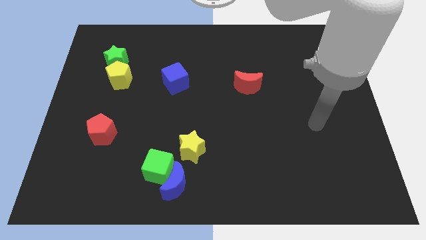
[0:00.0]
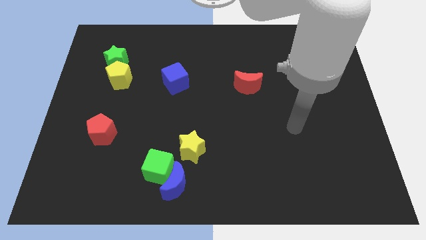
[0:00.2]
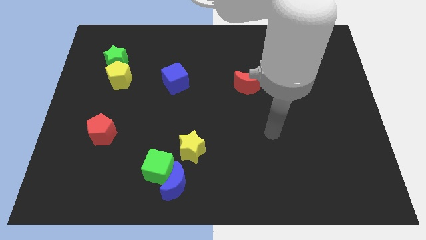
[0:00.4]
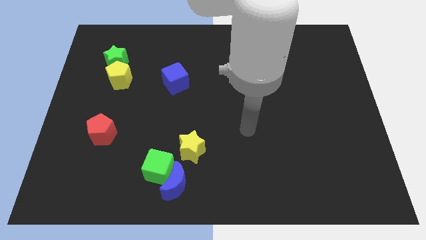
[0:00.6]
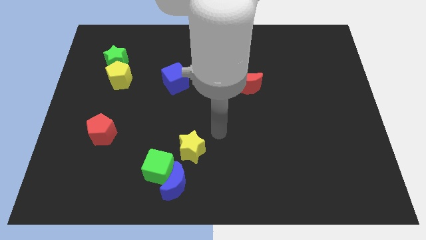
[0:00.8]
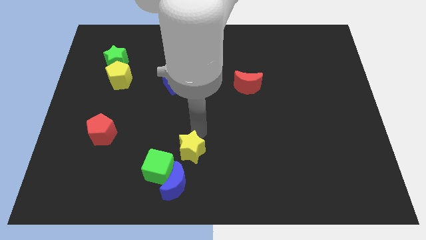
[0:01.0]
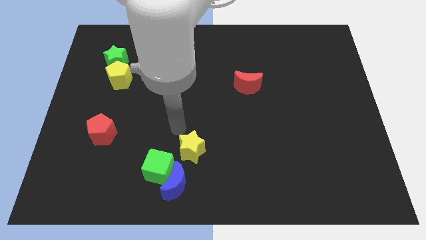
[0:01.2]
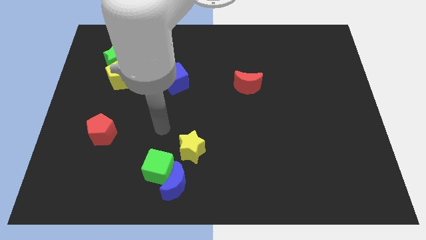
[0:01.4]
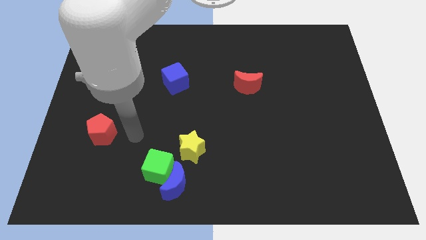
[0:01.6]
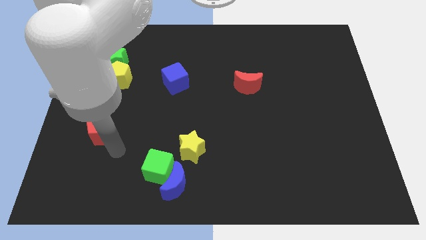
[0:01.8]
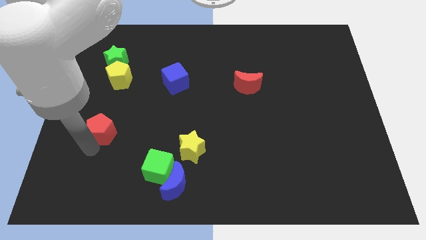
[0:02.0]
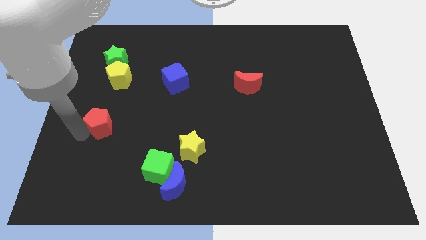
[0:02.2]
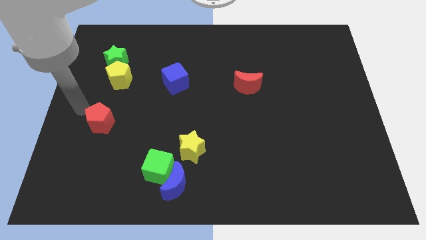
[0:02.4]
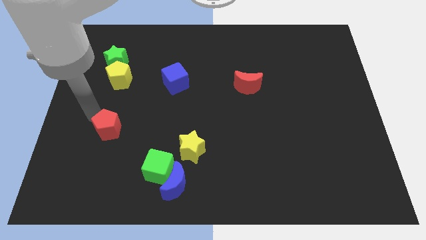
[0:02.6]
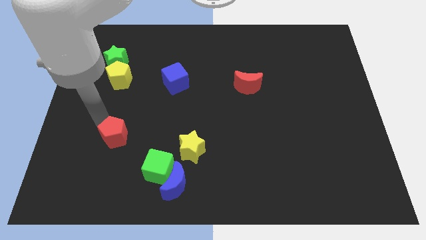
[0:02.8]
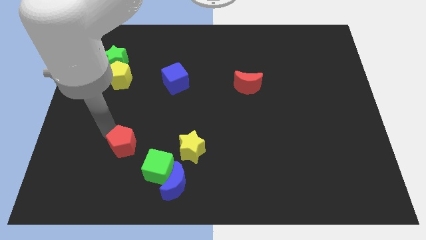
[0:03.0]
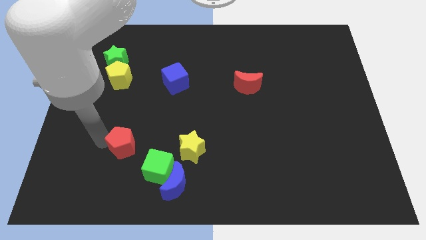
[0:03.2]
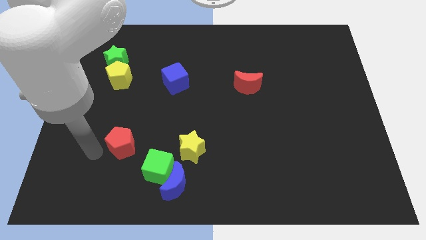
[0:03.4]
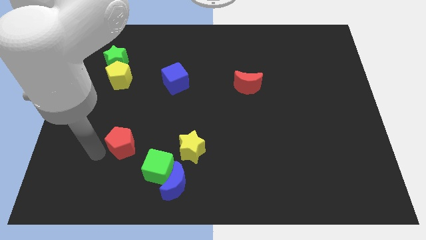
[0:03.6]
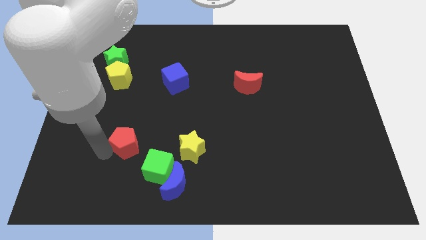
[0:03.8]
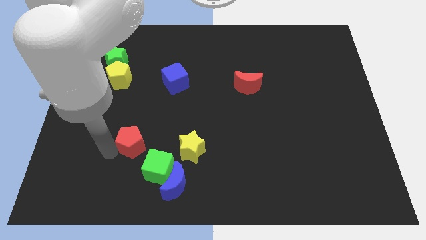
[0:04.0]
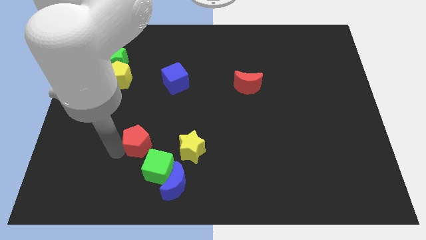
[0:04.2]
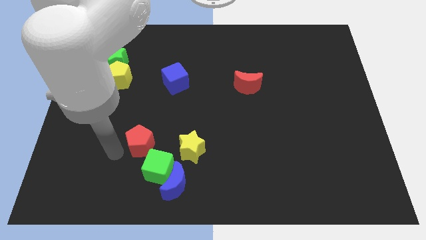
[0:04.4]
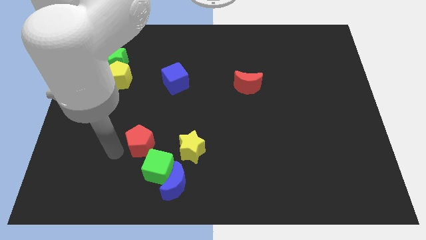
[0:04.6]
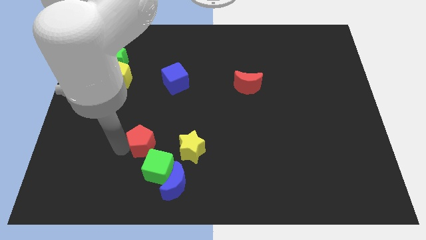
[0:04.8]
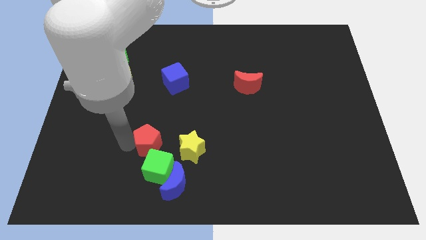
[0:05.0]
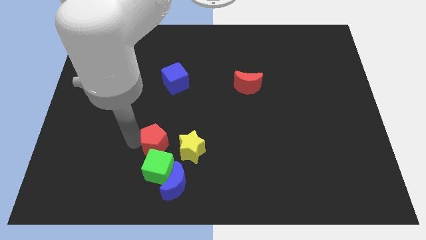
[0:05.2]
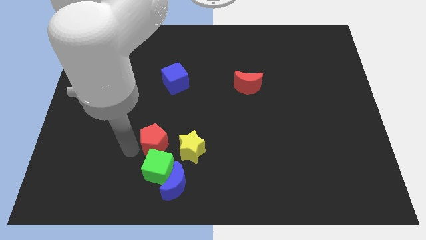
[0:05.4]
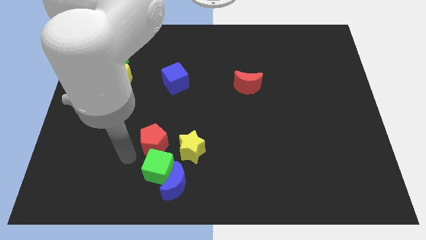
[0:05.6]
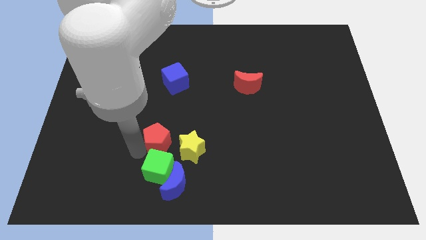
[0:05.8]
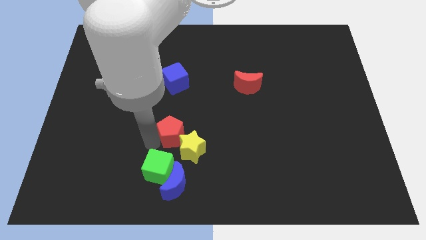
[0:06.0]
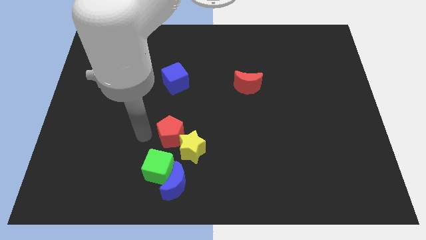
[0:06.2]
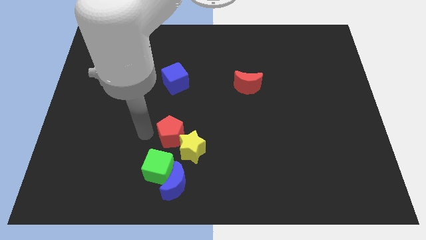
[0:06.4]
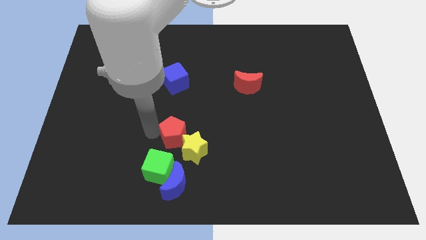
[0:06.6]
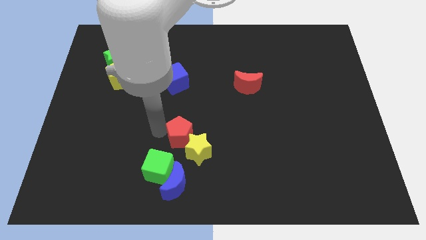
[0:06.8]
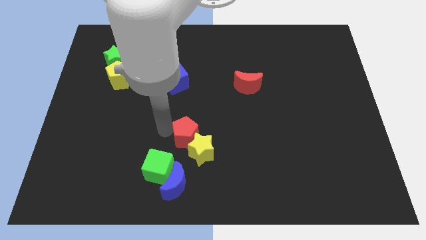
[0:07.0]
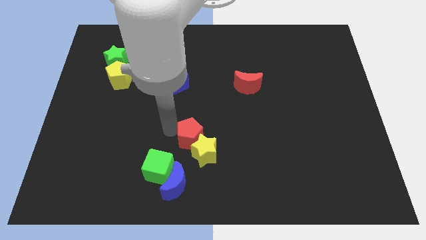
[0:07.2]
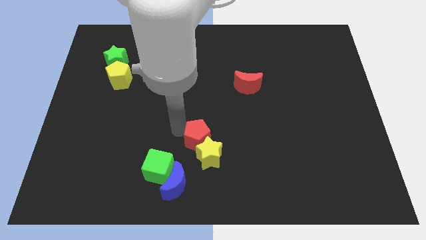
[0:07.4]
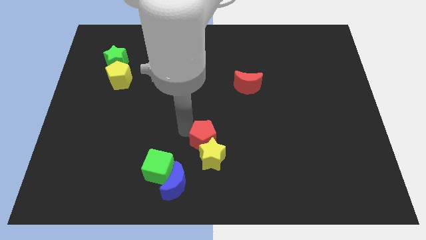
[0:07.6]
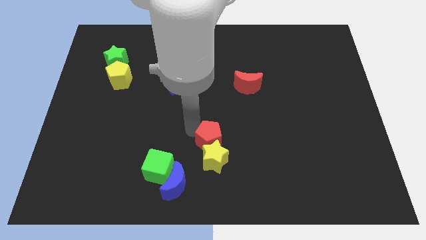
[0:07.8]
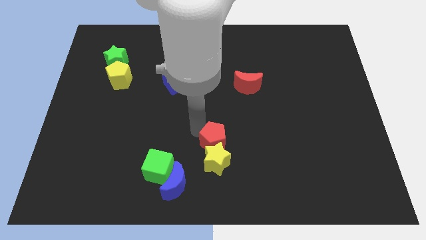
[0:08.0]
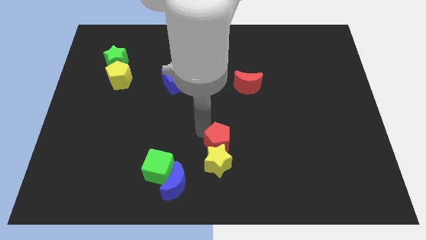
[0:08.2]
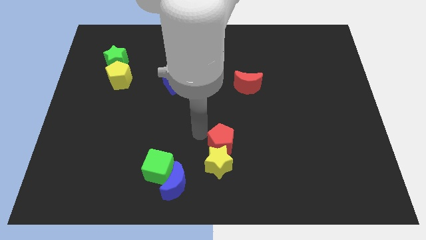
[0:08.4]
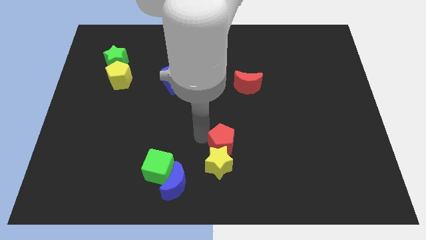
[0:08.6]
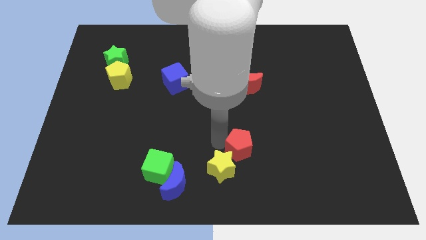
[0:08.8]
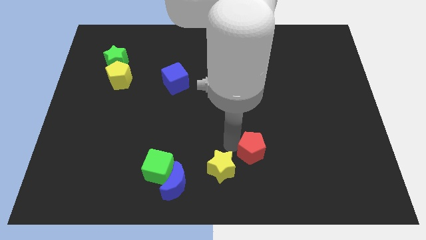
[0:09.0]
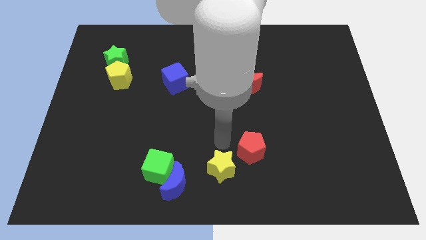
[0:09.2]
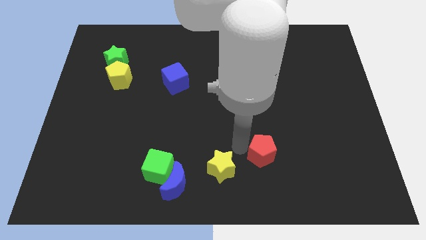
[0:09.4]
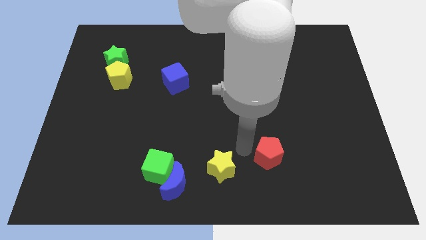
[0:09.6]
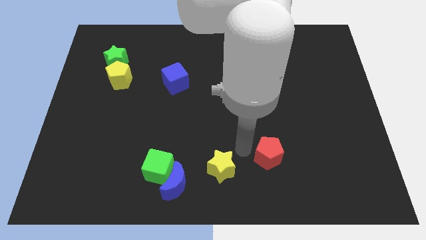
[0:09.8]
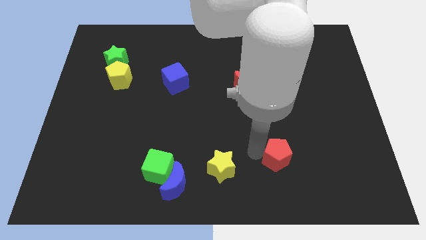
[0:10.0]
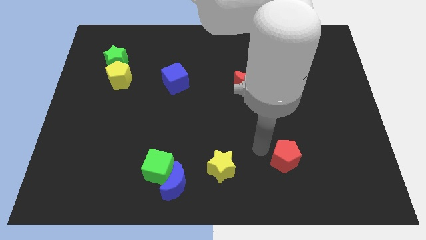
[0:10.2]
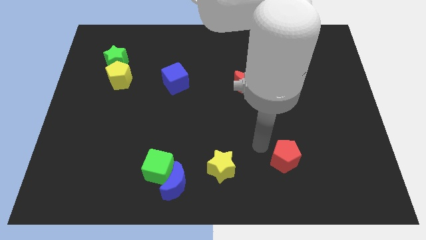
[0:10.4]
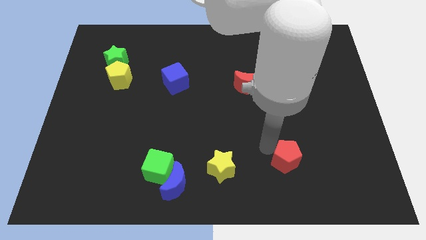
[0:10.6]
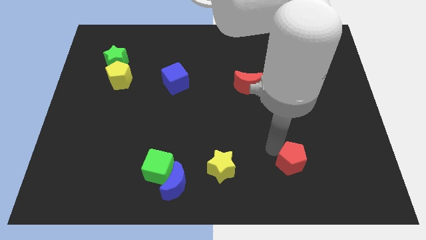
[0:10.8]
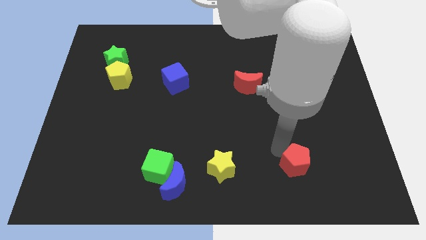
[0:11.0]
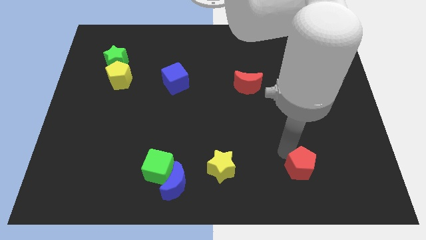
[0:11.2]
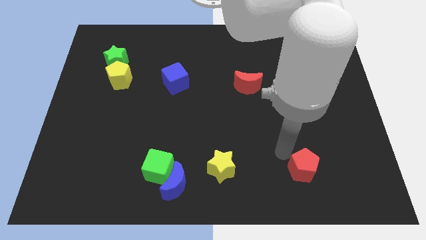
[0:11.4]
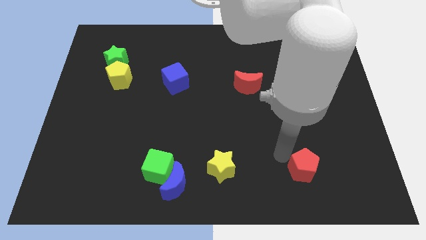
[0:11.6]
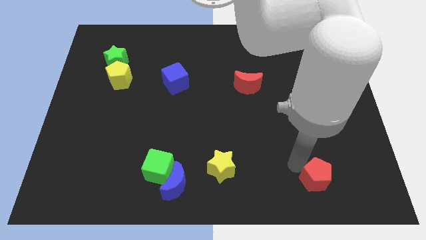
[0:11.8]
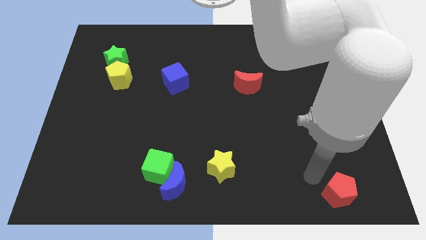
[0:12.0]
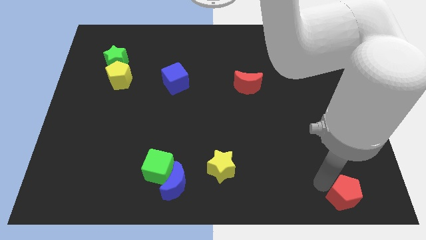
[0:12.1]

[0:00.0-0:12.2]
slide the red pentagon to the bottom right of the board
